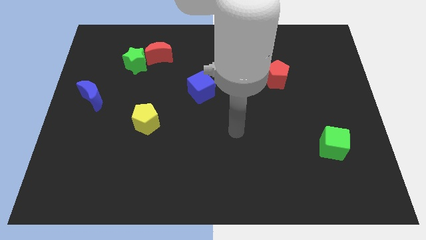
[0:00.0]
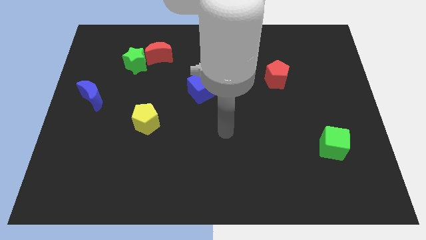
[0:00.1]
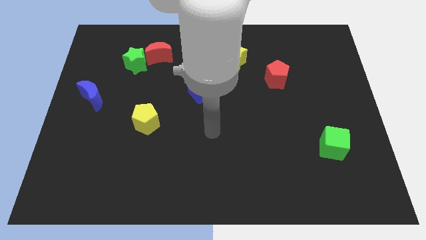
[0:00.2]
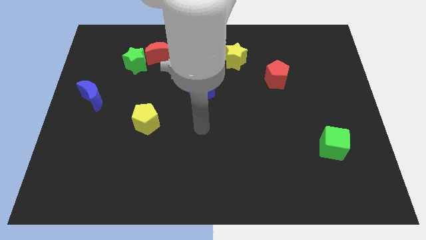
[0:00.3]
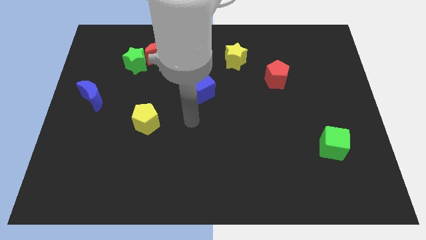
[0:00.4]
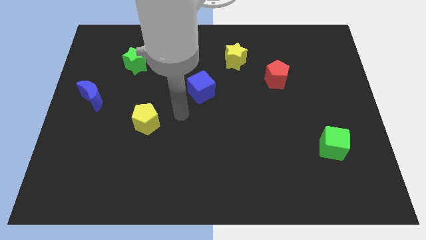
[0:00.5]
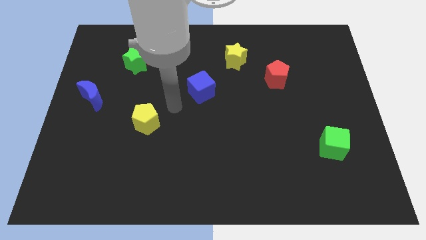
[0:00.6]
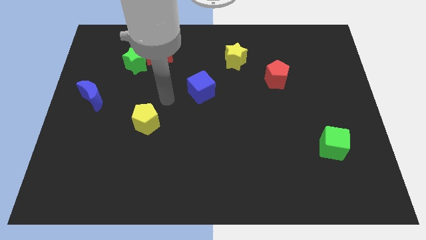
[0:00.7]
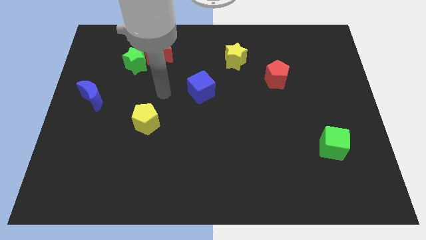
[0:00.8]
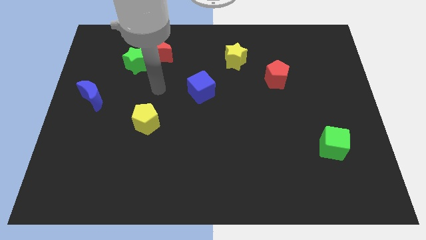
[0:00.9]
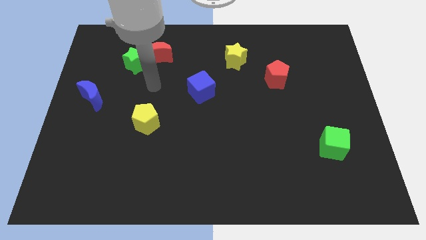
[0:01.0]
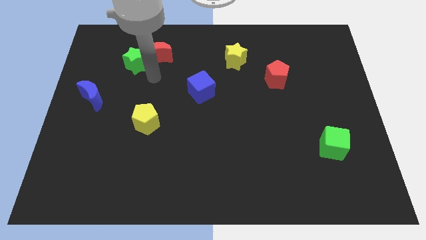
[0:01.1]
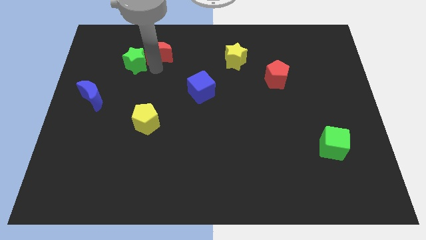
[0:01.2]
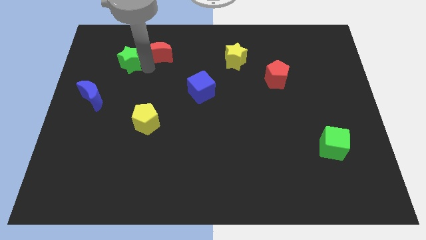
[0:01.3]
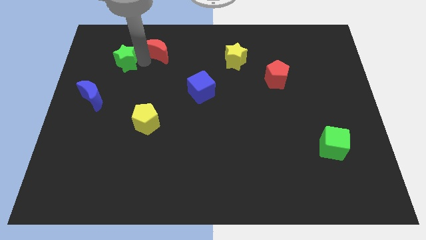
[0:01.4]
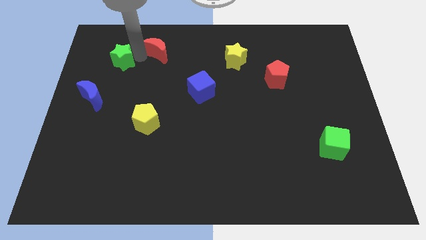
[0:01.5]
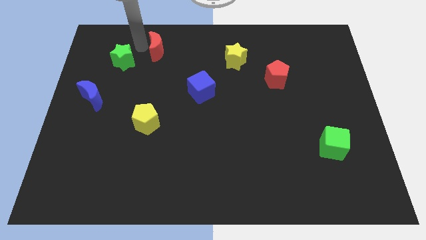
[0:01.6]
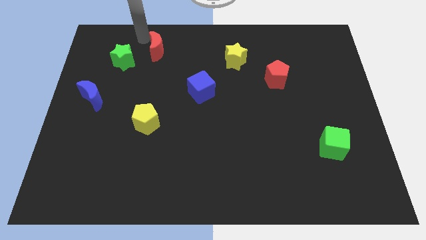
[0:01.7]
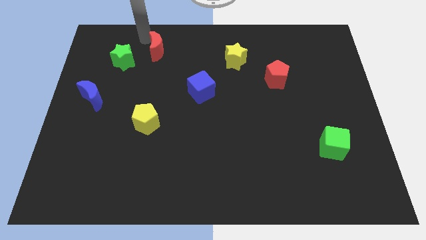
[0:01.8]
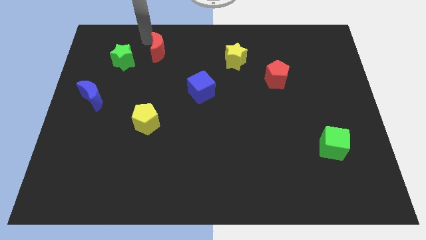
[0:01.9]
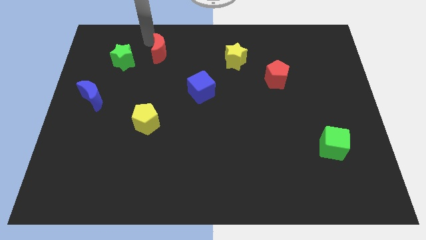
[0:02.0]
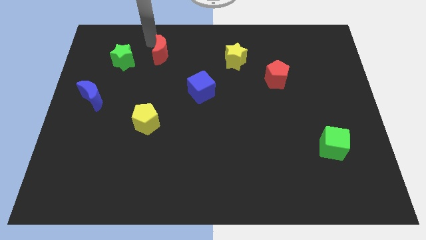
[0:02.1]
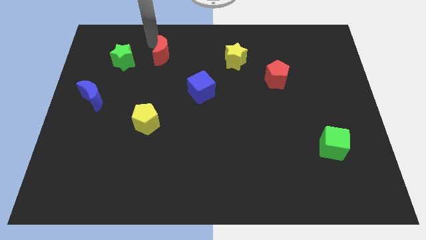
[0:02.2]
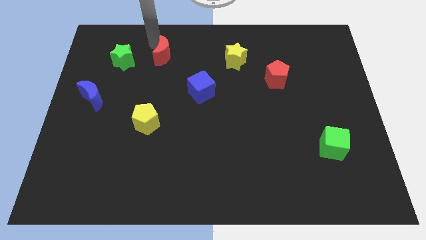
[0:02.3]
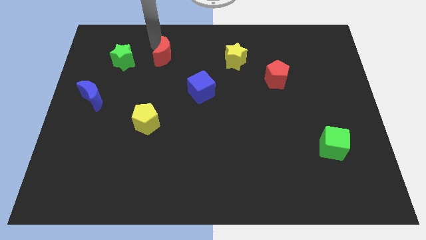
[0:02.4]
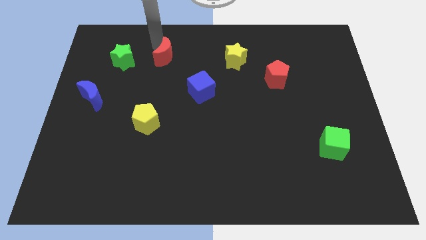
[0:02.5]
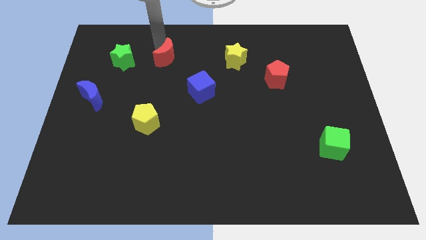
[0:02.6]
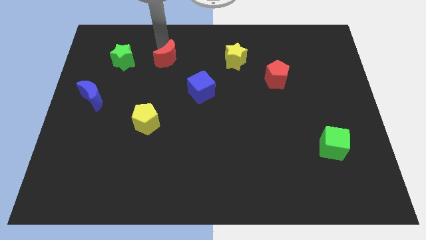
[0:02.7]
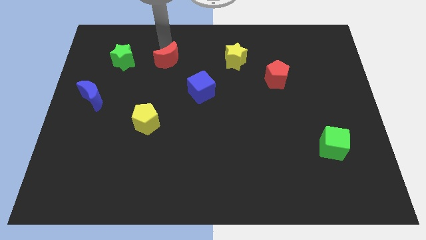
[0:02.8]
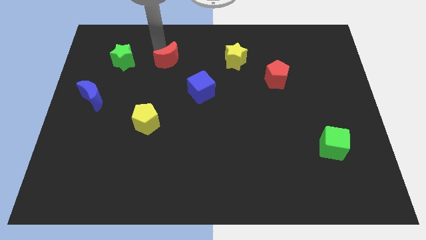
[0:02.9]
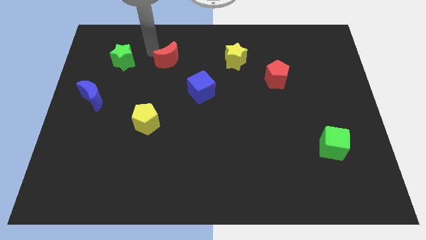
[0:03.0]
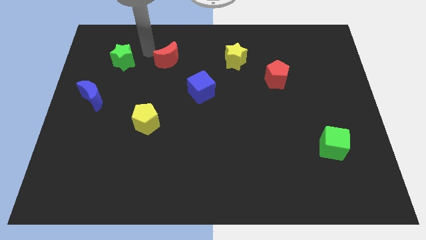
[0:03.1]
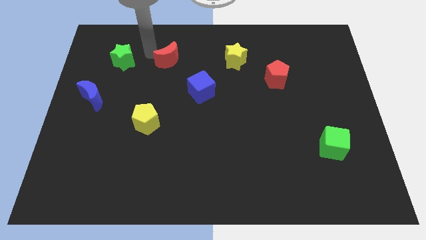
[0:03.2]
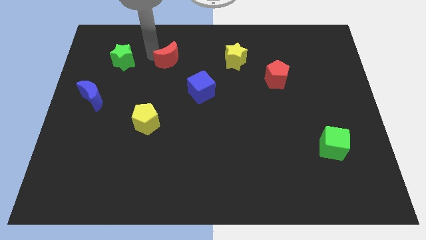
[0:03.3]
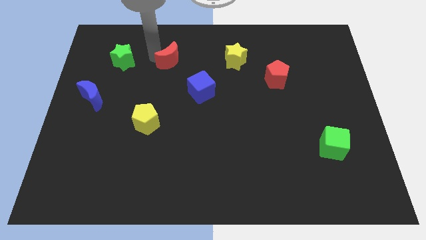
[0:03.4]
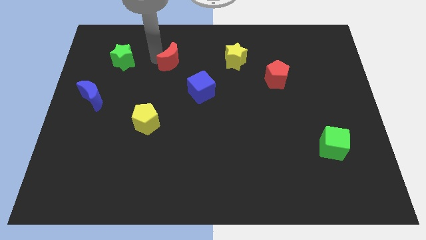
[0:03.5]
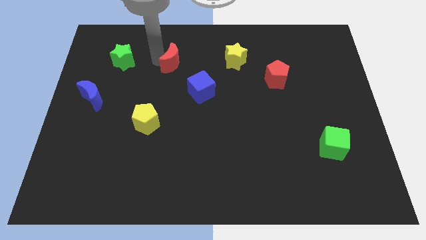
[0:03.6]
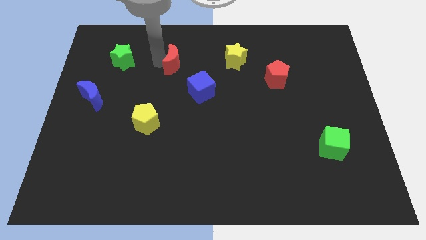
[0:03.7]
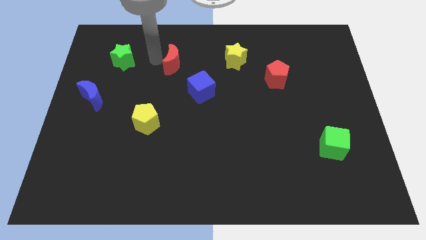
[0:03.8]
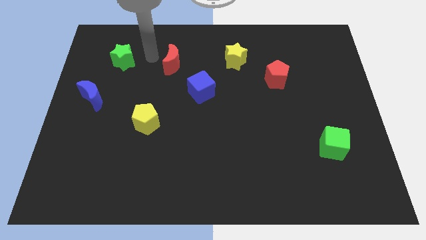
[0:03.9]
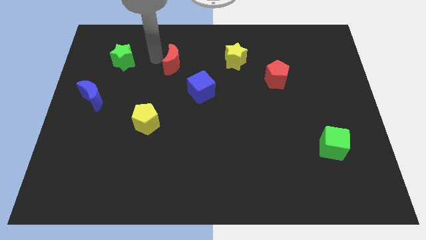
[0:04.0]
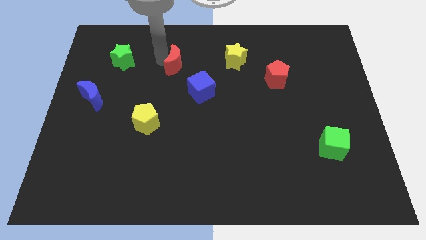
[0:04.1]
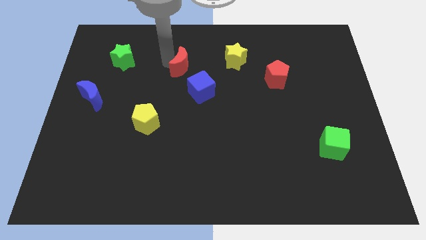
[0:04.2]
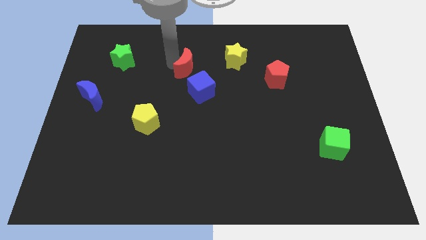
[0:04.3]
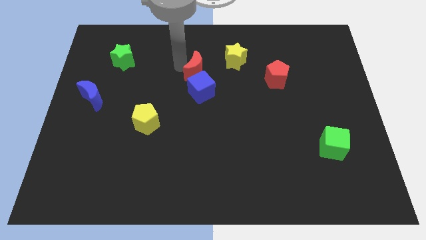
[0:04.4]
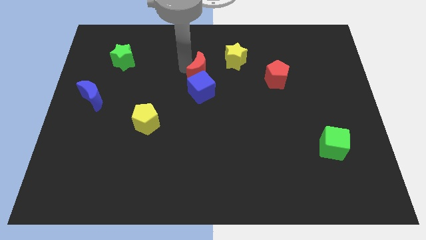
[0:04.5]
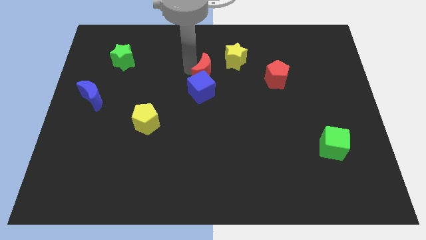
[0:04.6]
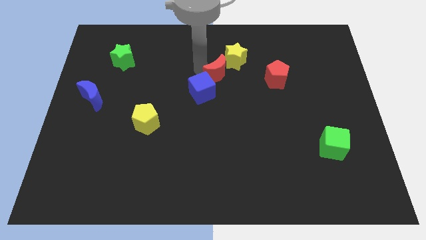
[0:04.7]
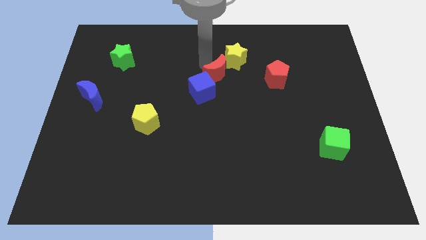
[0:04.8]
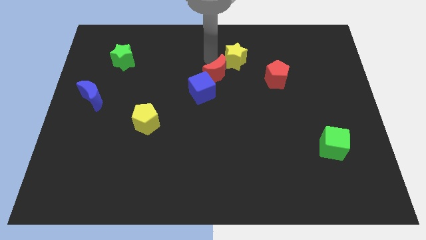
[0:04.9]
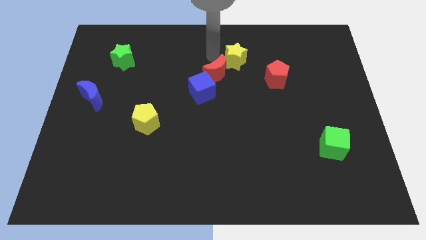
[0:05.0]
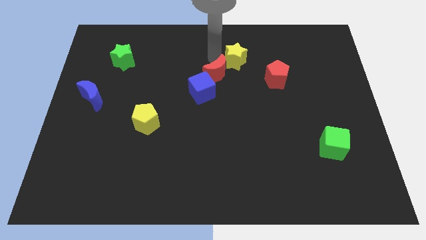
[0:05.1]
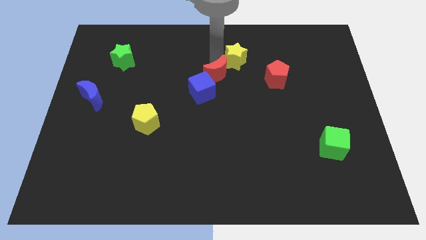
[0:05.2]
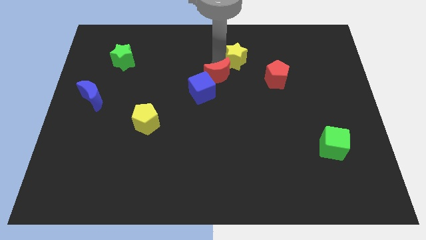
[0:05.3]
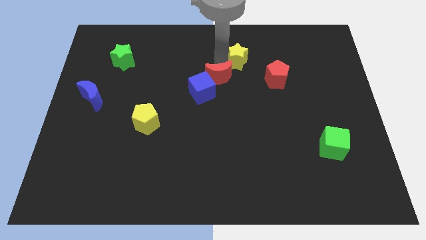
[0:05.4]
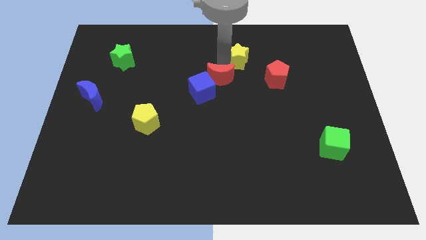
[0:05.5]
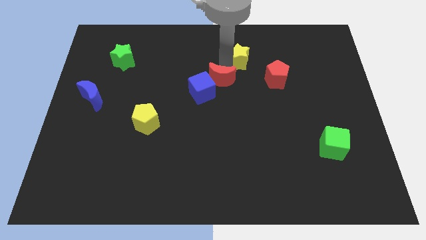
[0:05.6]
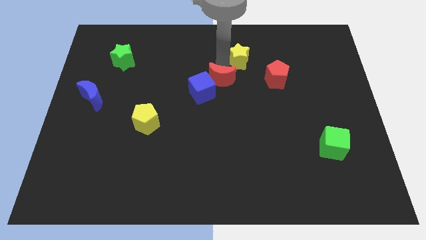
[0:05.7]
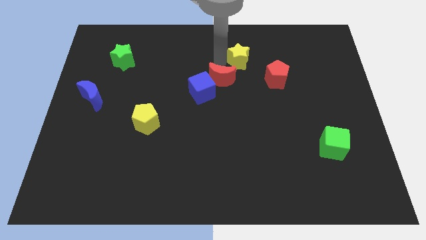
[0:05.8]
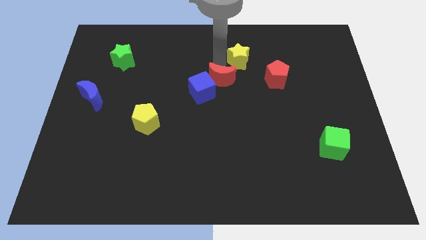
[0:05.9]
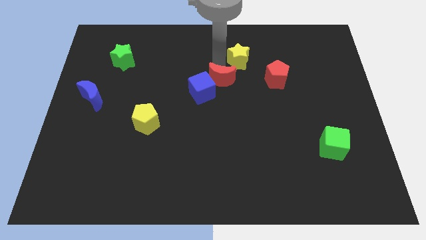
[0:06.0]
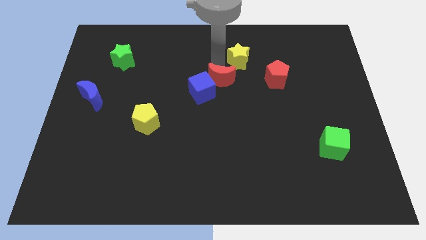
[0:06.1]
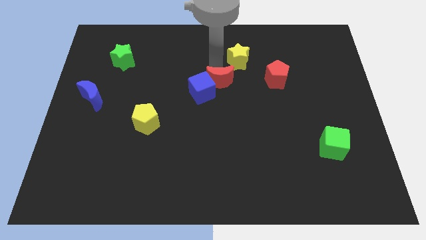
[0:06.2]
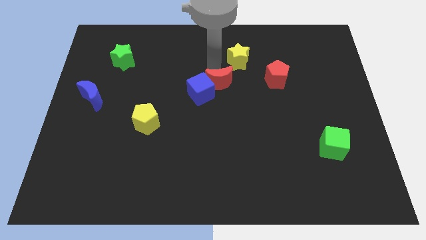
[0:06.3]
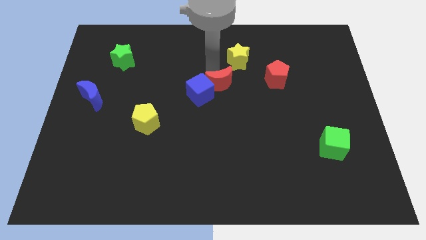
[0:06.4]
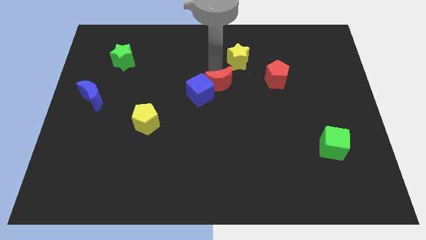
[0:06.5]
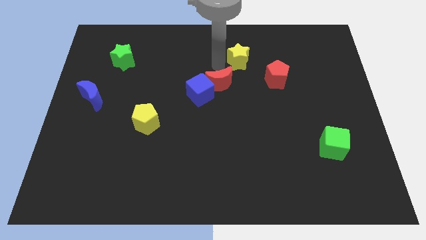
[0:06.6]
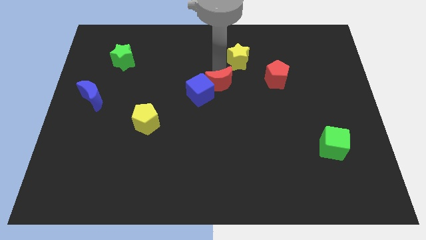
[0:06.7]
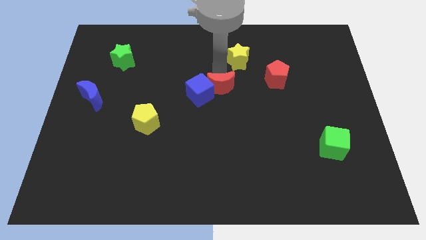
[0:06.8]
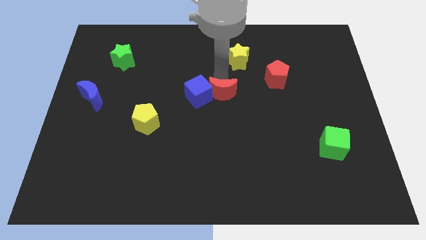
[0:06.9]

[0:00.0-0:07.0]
put the red moon to the bottom right side of the blue cube

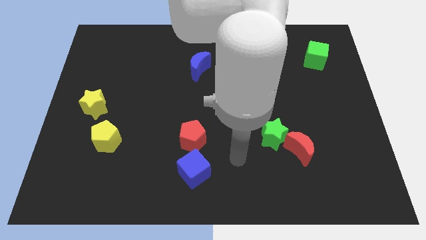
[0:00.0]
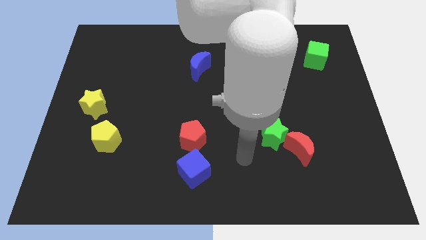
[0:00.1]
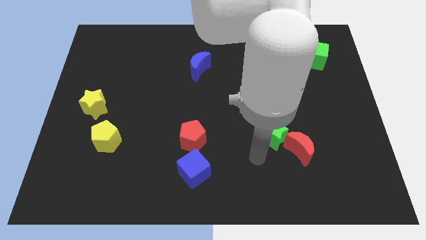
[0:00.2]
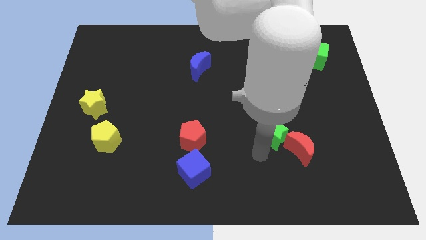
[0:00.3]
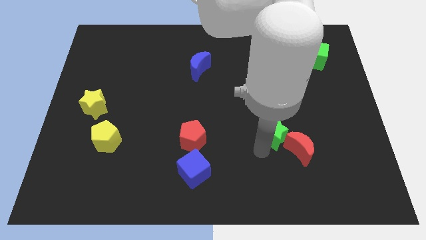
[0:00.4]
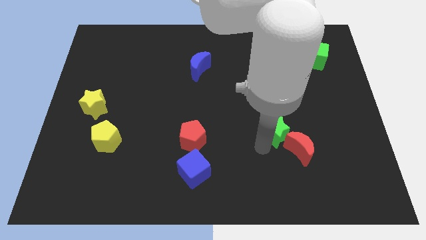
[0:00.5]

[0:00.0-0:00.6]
put the green star to the top side of the red moon
